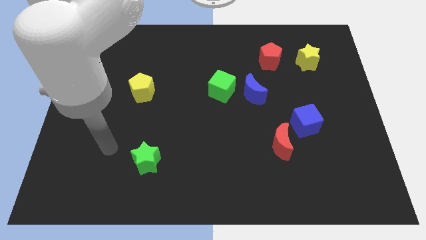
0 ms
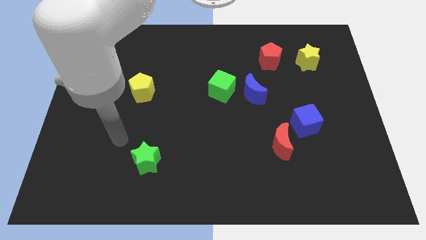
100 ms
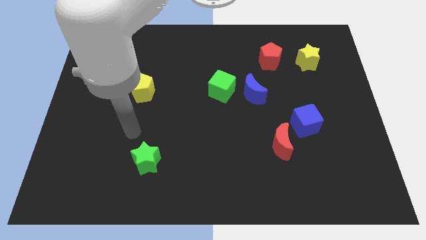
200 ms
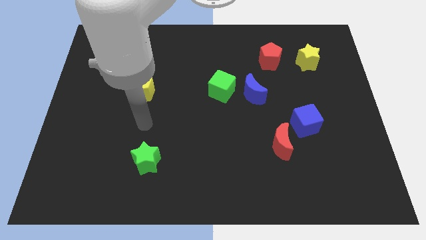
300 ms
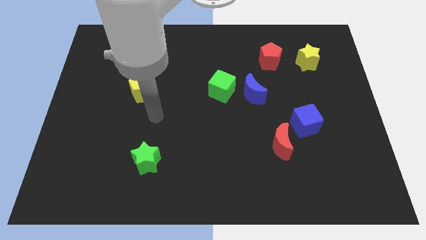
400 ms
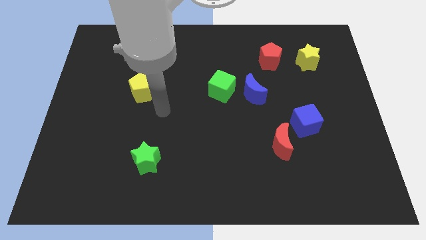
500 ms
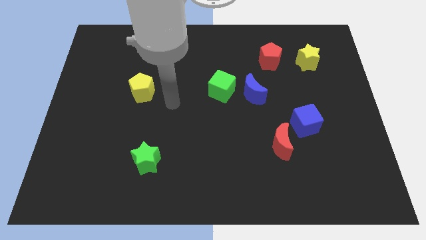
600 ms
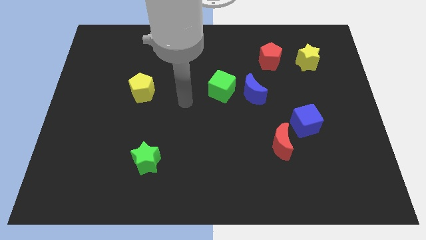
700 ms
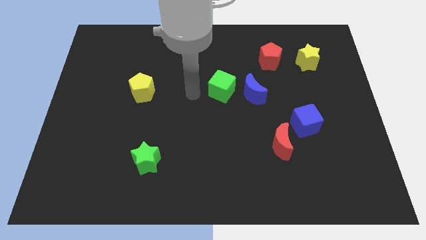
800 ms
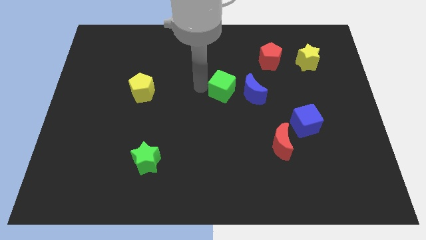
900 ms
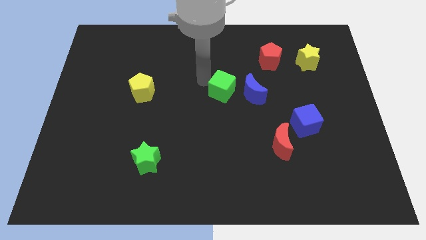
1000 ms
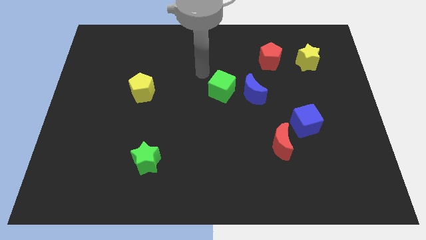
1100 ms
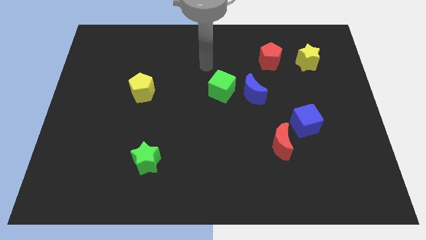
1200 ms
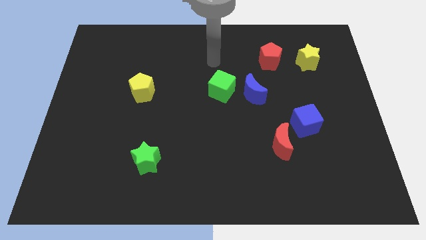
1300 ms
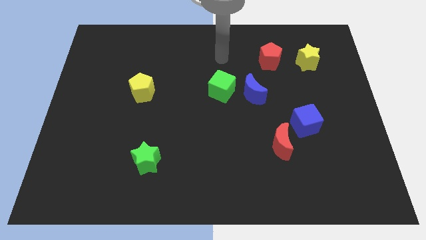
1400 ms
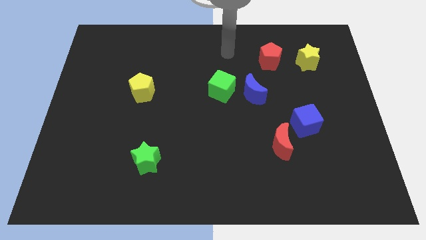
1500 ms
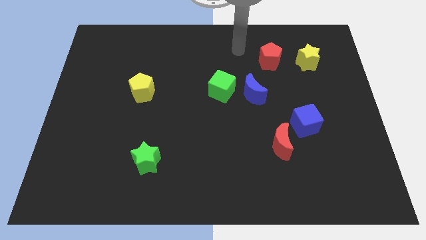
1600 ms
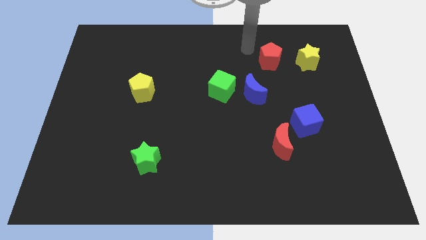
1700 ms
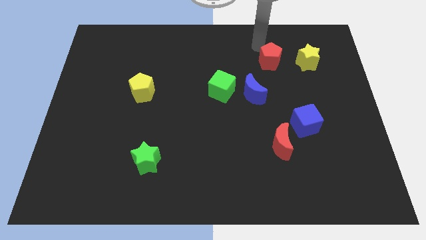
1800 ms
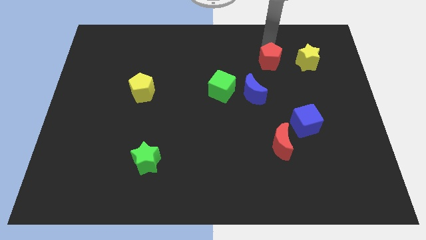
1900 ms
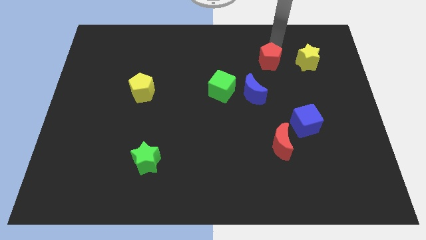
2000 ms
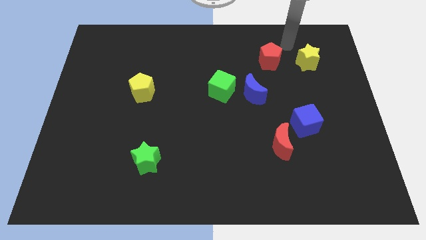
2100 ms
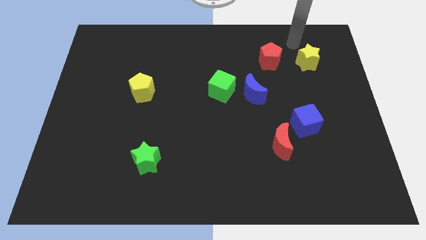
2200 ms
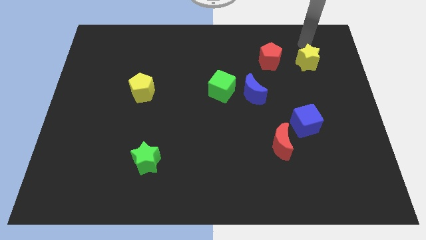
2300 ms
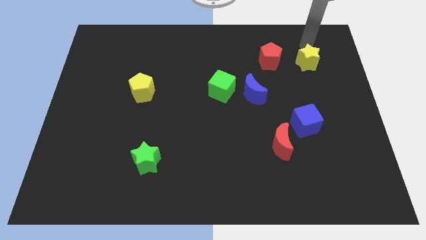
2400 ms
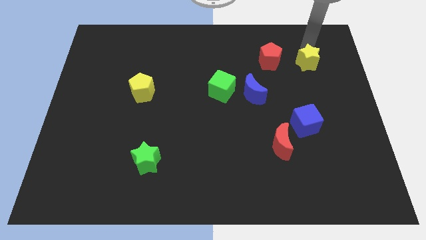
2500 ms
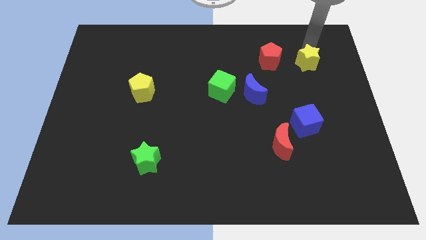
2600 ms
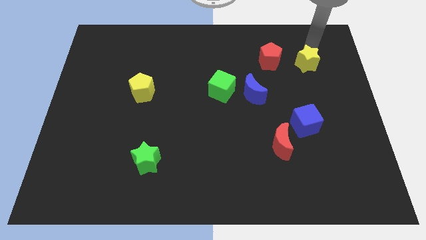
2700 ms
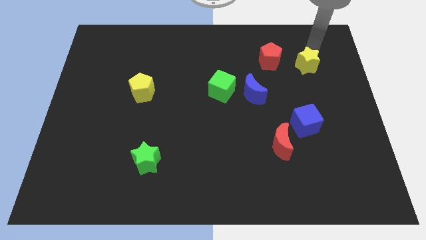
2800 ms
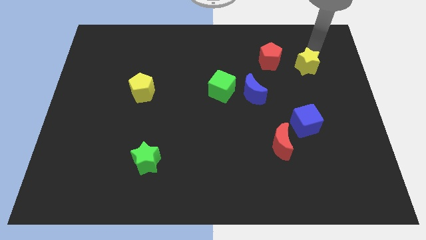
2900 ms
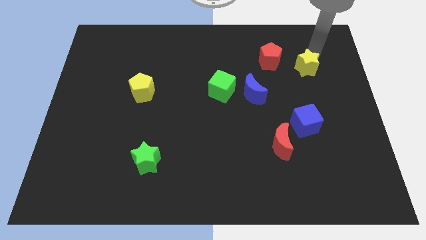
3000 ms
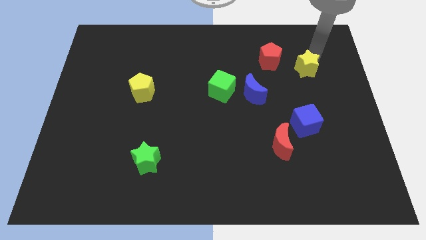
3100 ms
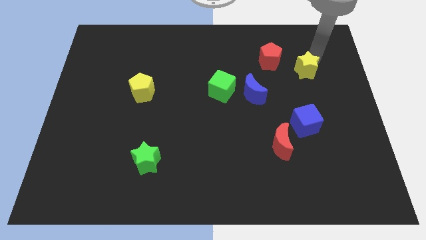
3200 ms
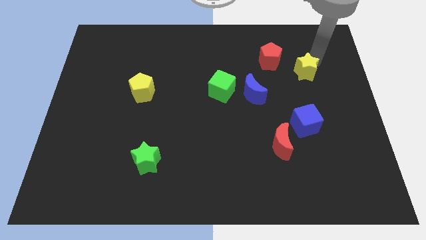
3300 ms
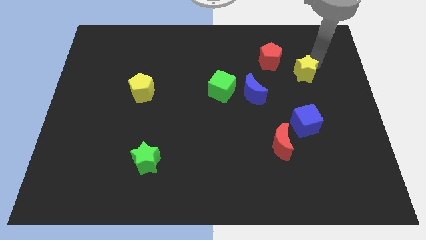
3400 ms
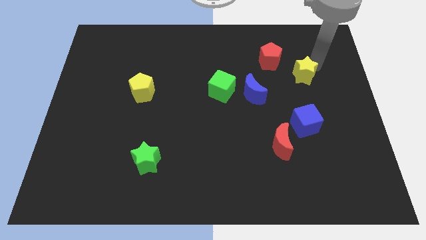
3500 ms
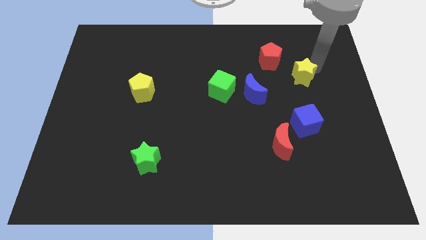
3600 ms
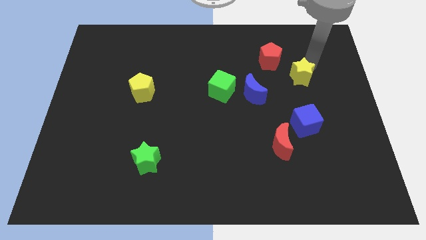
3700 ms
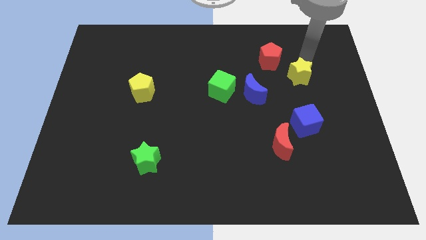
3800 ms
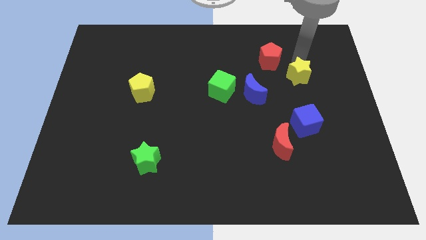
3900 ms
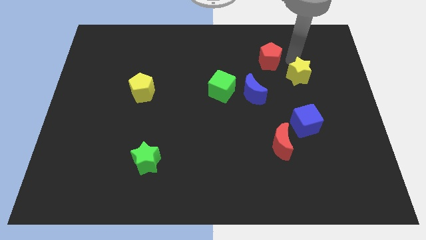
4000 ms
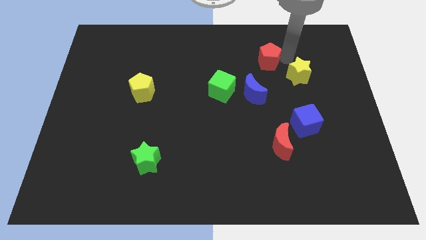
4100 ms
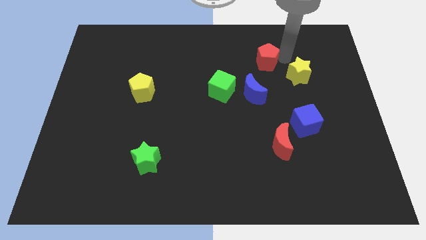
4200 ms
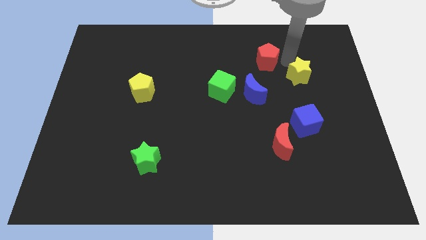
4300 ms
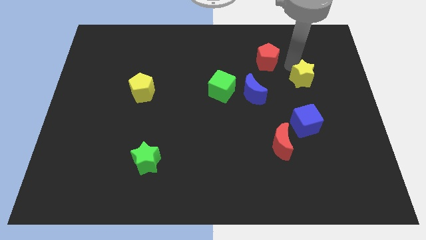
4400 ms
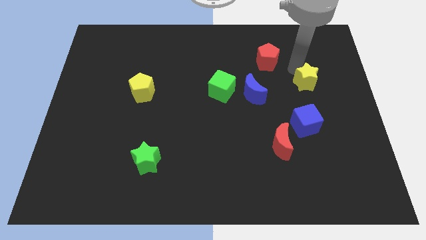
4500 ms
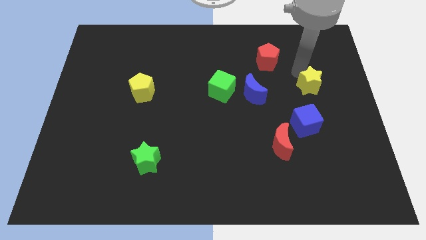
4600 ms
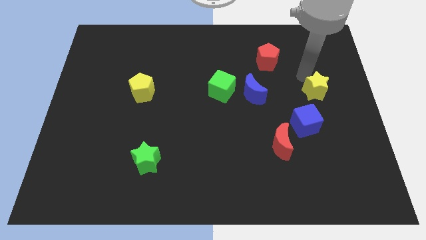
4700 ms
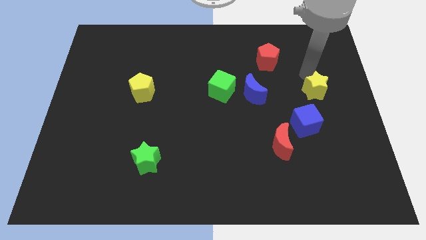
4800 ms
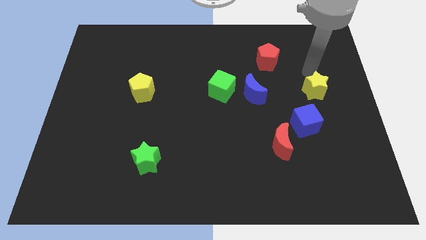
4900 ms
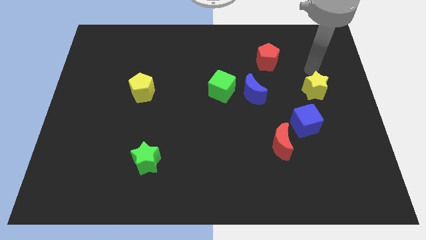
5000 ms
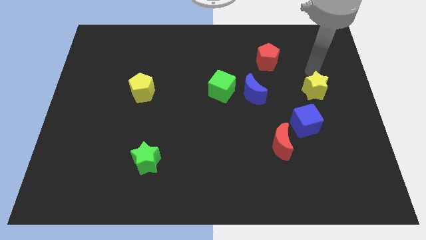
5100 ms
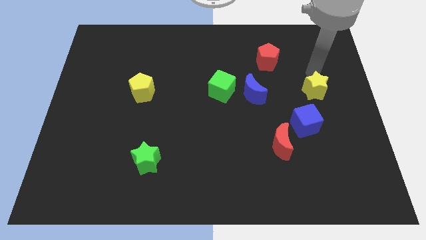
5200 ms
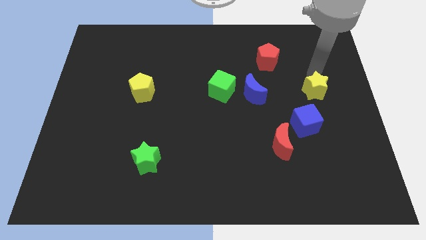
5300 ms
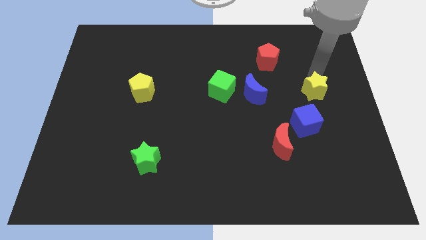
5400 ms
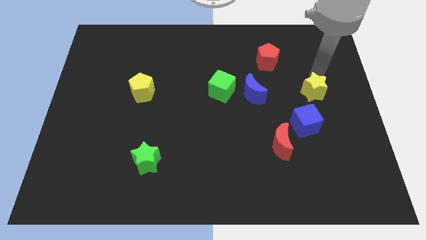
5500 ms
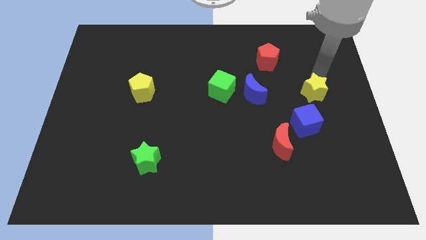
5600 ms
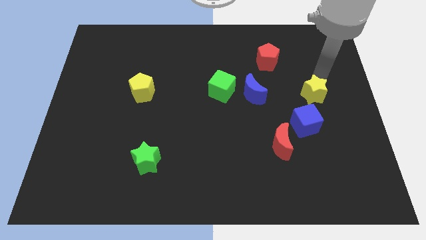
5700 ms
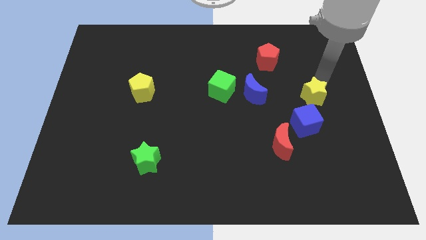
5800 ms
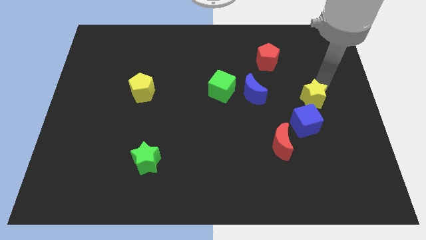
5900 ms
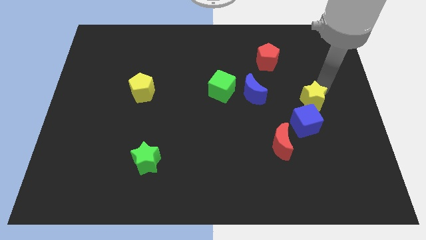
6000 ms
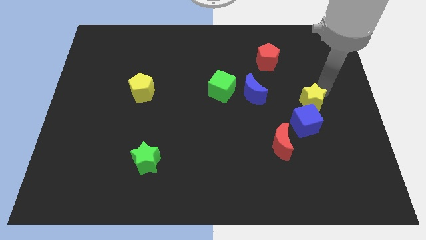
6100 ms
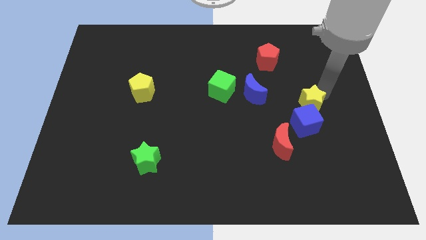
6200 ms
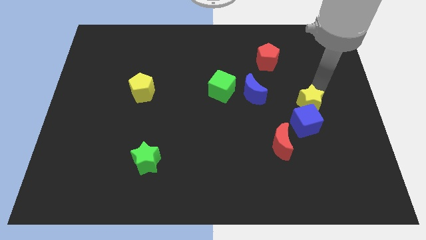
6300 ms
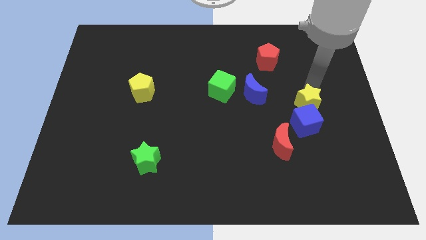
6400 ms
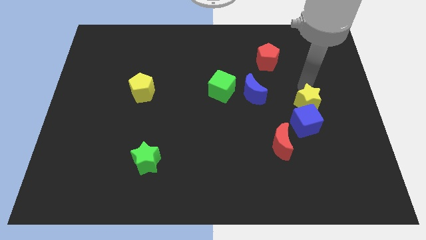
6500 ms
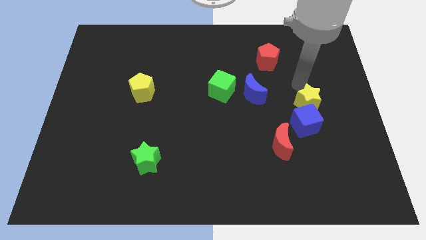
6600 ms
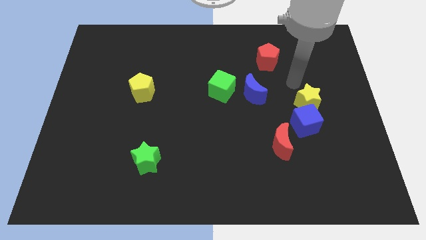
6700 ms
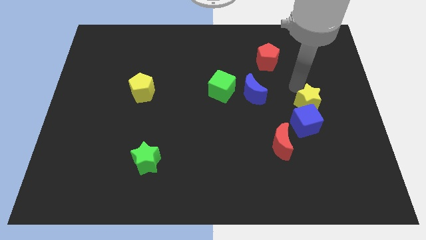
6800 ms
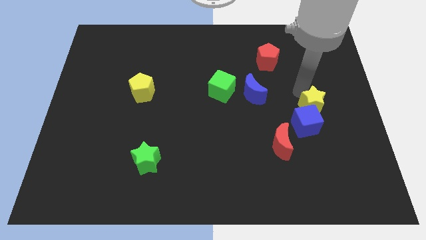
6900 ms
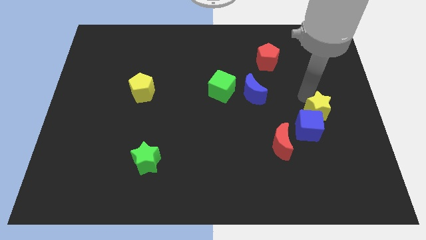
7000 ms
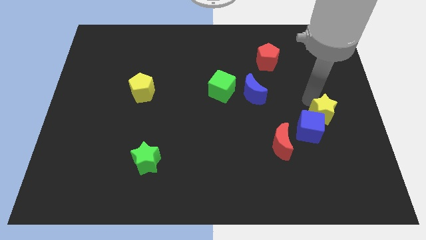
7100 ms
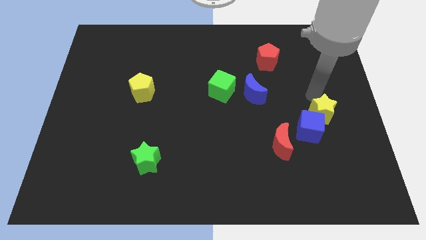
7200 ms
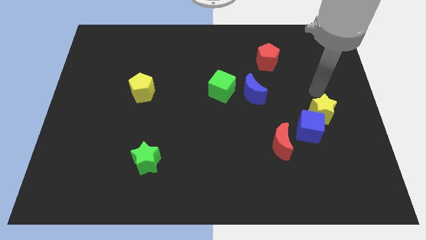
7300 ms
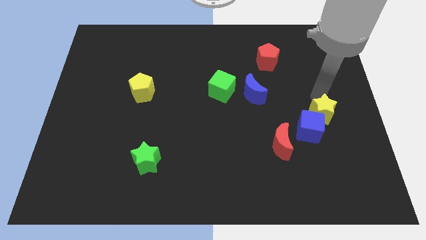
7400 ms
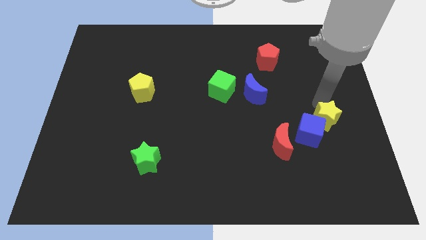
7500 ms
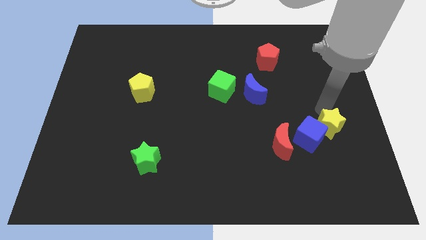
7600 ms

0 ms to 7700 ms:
push the yellow star down

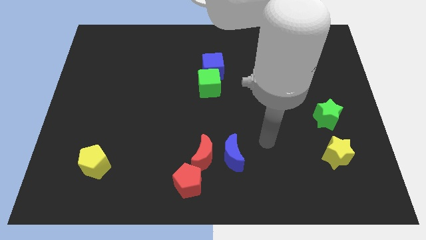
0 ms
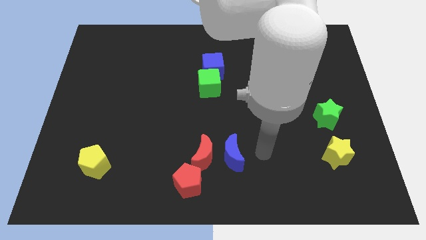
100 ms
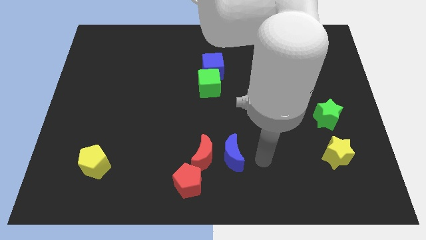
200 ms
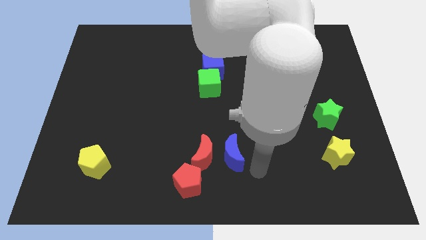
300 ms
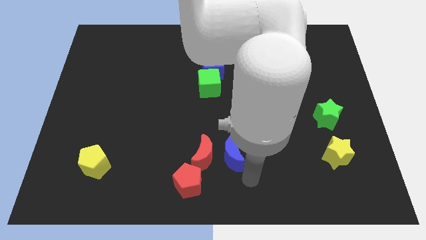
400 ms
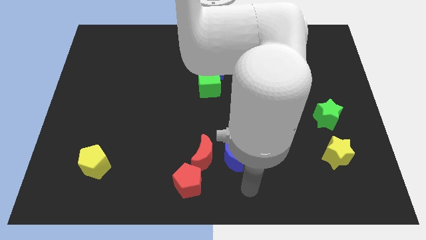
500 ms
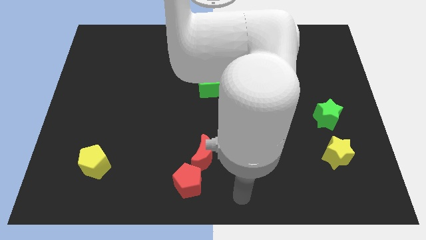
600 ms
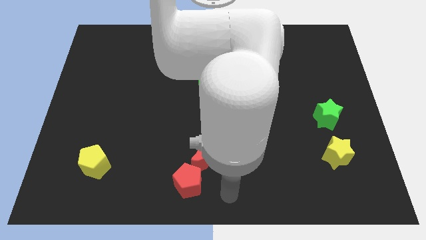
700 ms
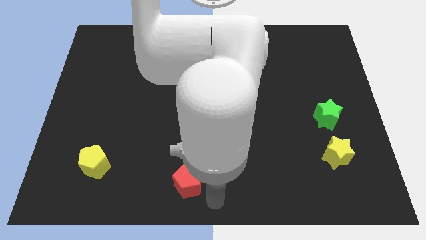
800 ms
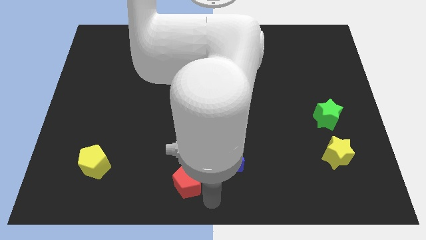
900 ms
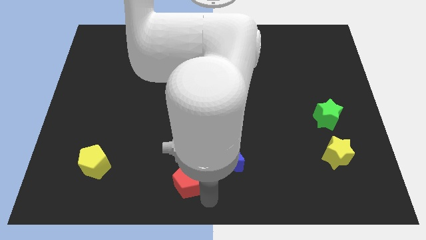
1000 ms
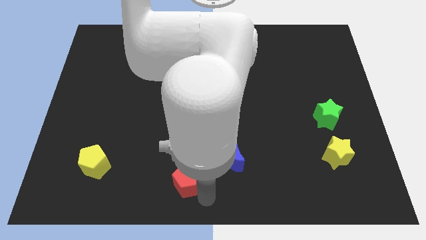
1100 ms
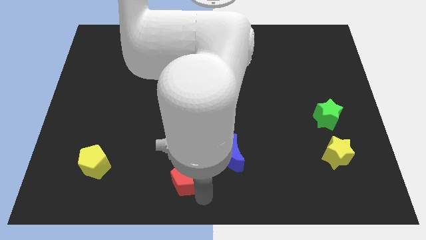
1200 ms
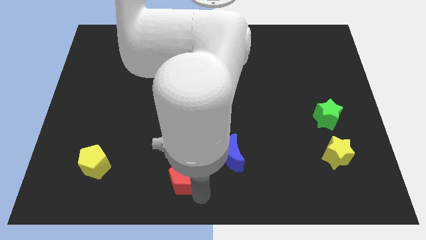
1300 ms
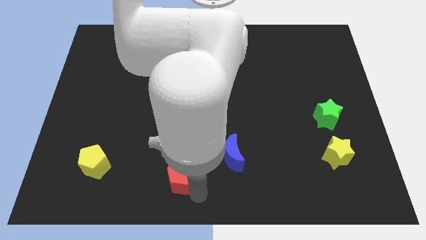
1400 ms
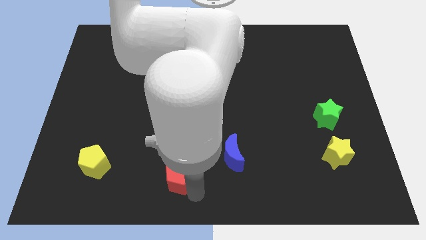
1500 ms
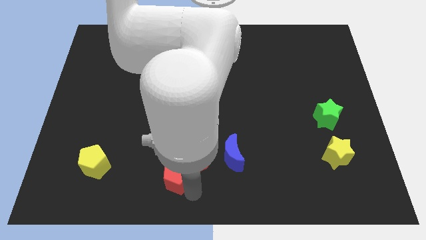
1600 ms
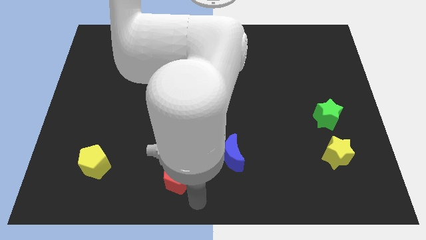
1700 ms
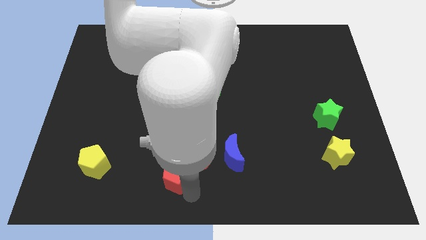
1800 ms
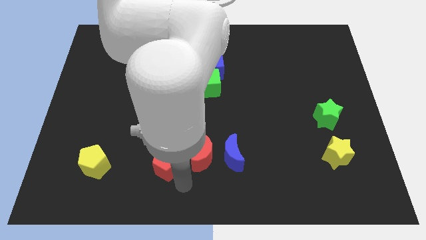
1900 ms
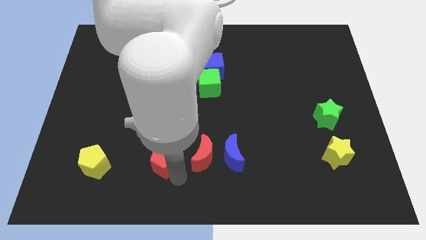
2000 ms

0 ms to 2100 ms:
slightly slide the red pentagon up and then to the left
